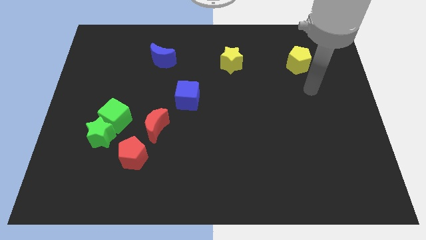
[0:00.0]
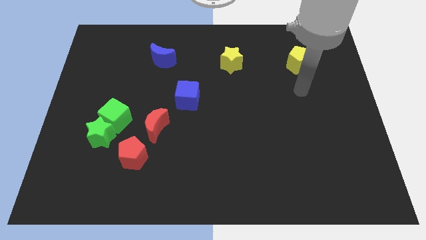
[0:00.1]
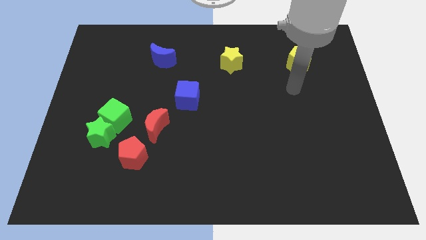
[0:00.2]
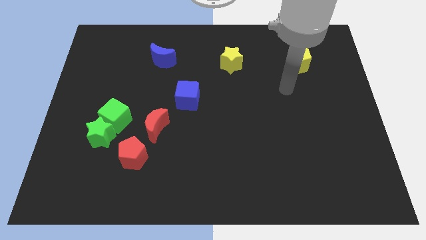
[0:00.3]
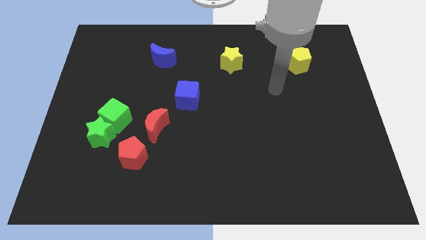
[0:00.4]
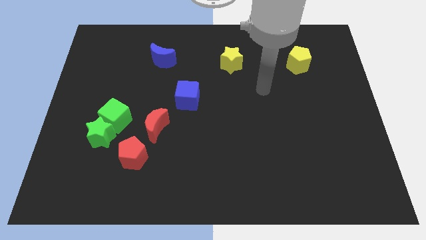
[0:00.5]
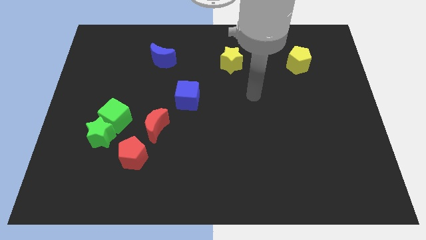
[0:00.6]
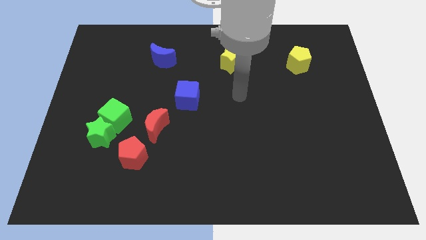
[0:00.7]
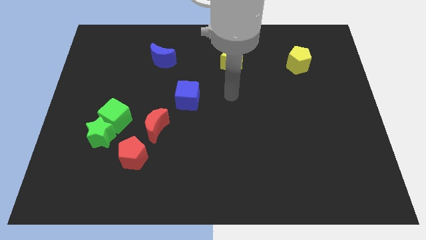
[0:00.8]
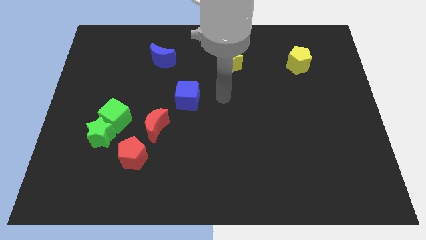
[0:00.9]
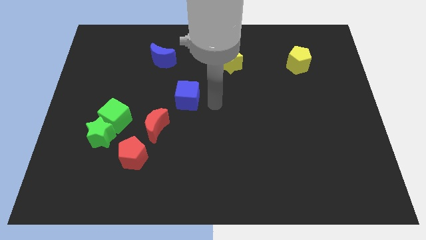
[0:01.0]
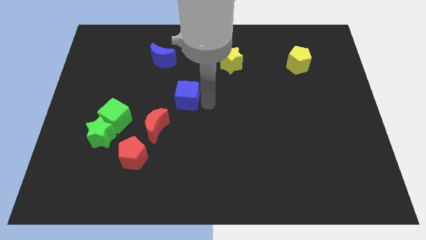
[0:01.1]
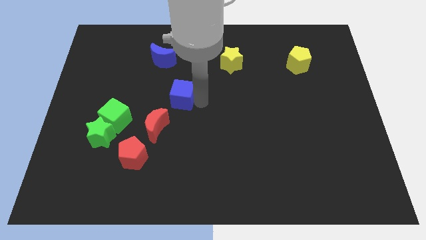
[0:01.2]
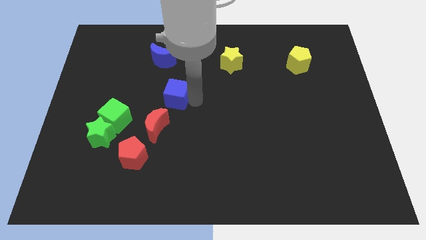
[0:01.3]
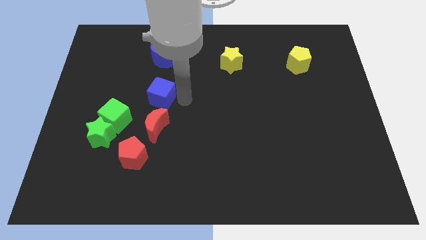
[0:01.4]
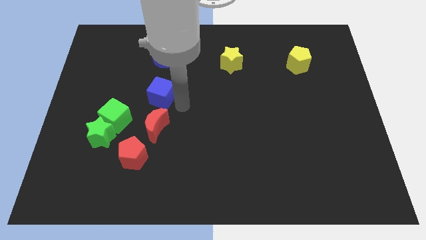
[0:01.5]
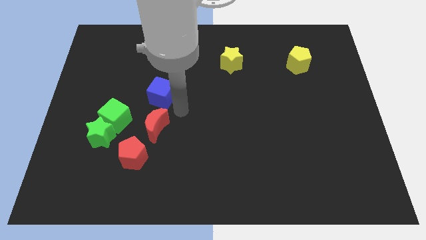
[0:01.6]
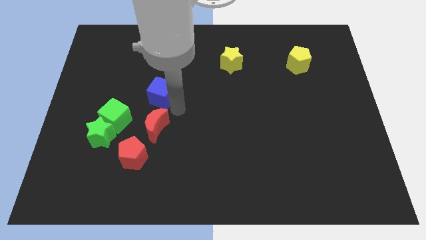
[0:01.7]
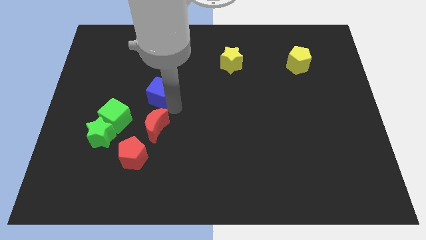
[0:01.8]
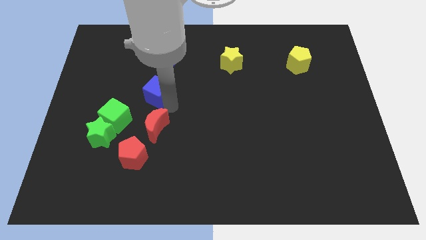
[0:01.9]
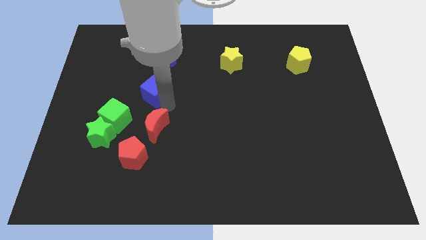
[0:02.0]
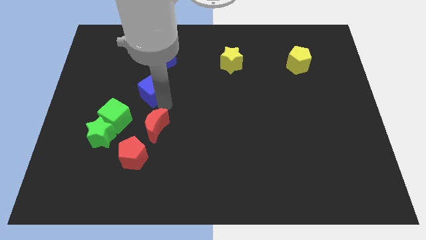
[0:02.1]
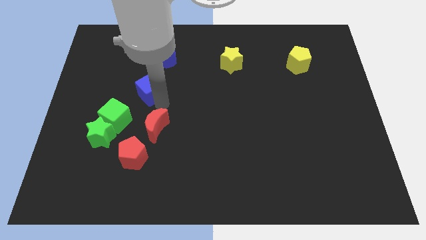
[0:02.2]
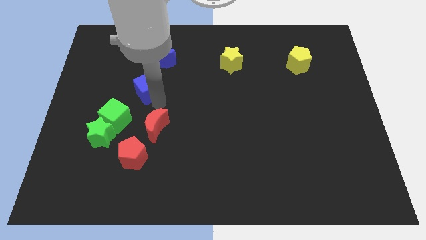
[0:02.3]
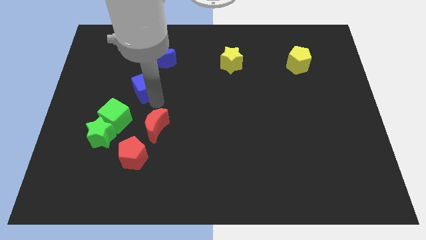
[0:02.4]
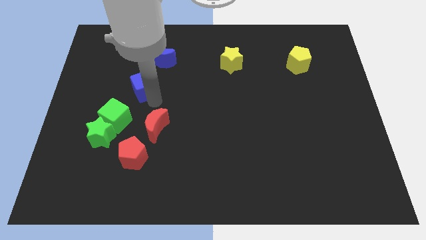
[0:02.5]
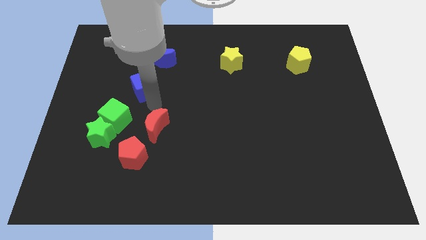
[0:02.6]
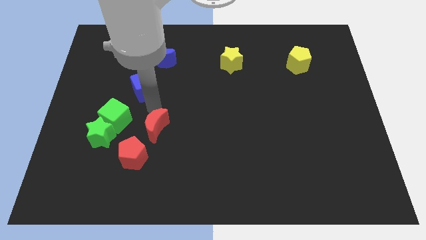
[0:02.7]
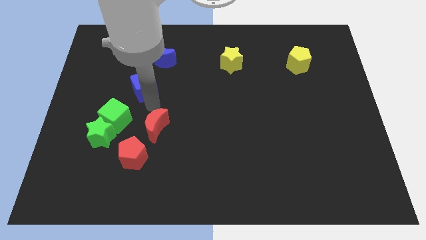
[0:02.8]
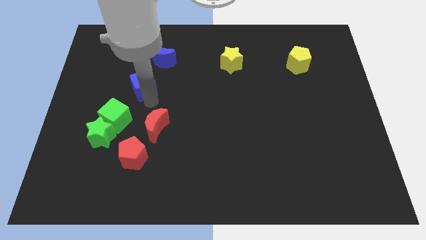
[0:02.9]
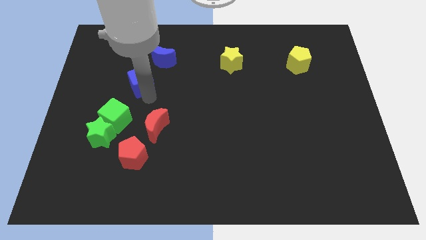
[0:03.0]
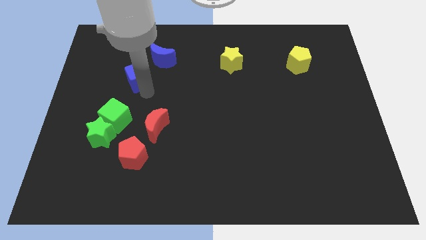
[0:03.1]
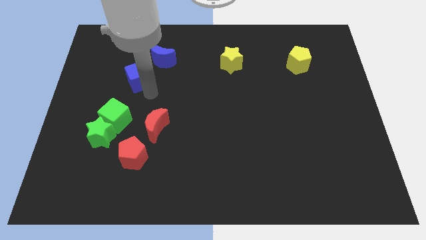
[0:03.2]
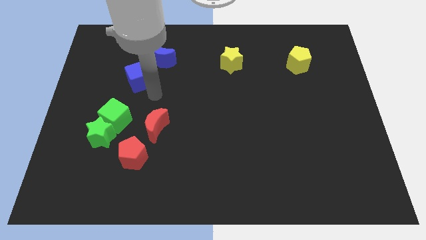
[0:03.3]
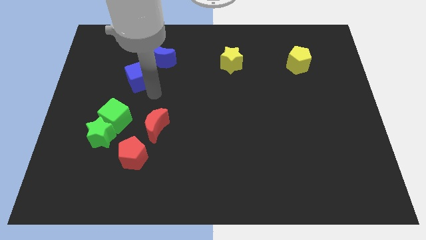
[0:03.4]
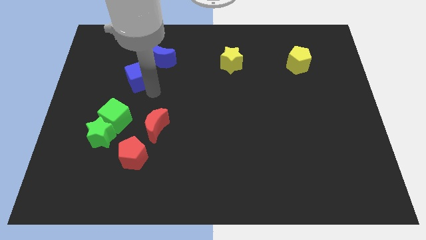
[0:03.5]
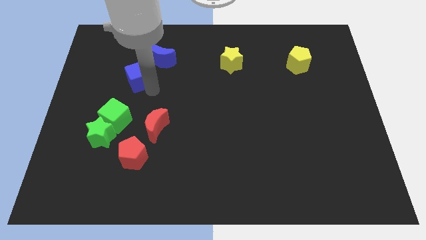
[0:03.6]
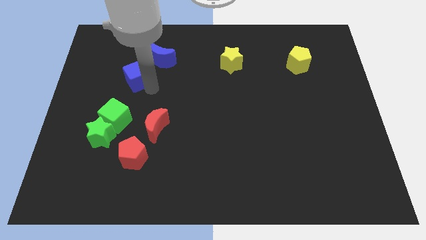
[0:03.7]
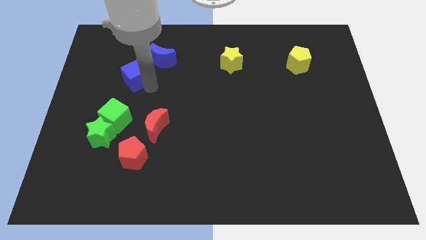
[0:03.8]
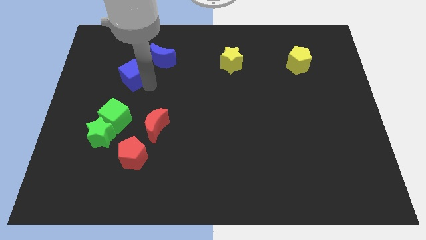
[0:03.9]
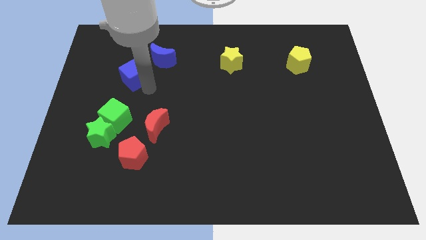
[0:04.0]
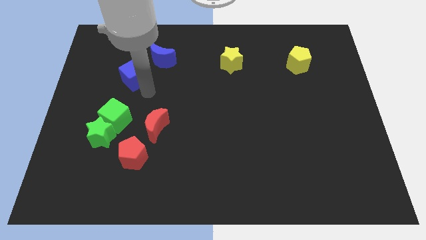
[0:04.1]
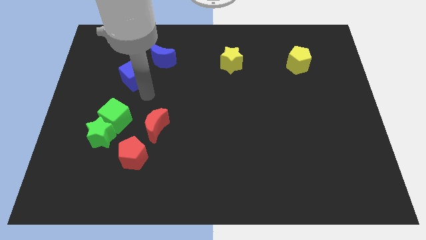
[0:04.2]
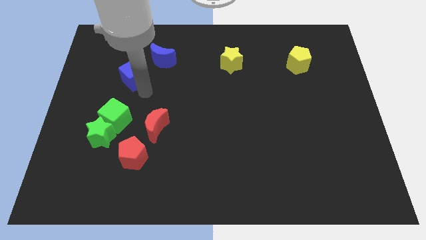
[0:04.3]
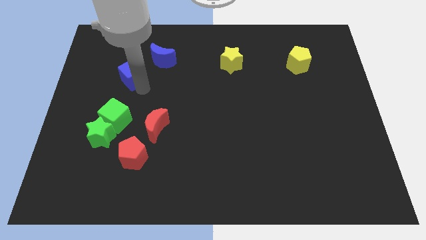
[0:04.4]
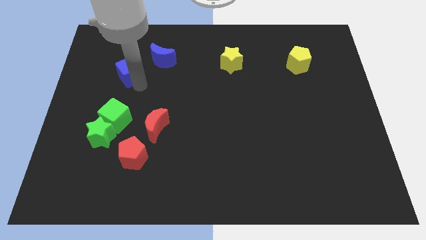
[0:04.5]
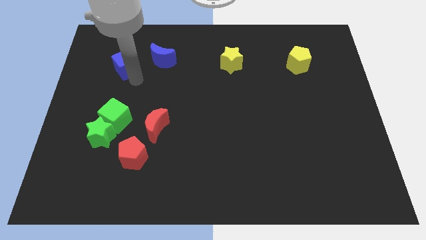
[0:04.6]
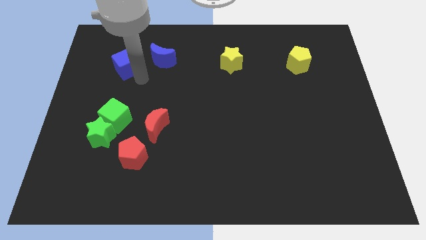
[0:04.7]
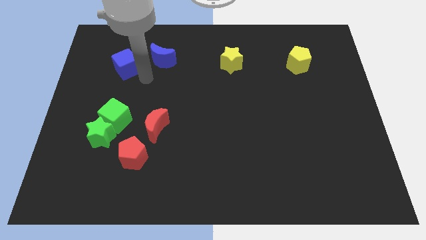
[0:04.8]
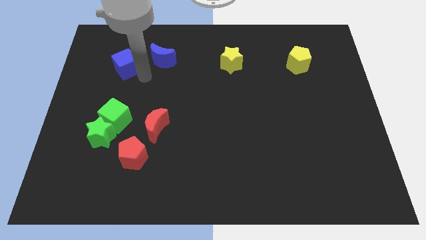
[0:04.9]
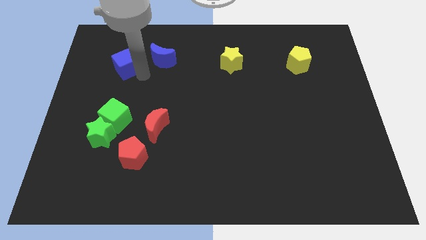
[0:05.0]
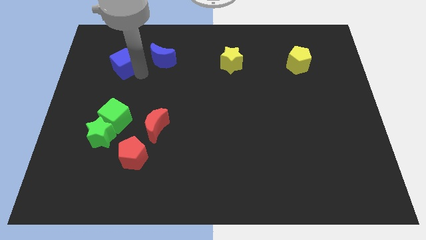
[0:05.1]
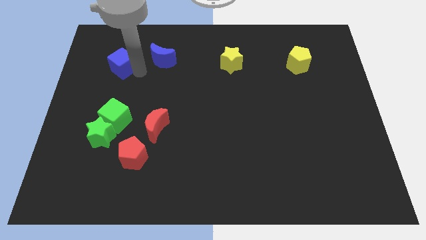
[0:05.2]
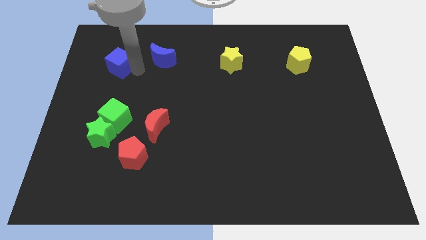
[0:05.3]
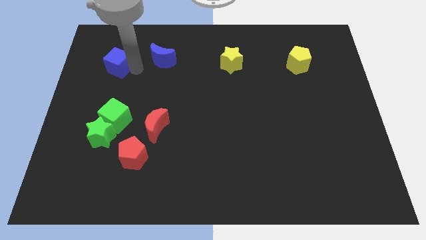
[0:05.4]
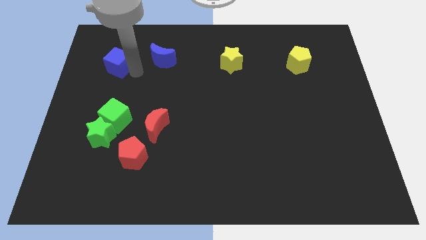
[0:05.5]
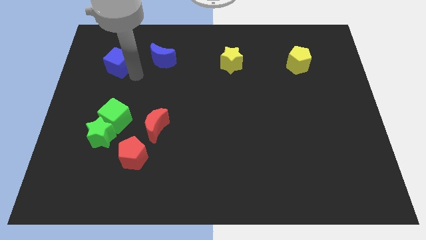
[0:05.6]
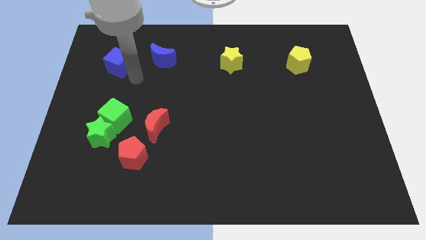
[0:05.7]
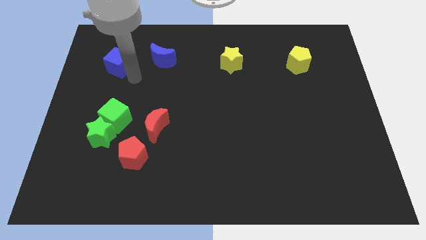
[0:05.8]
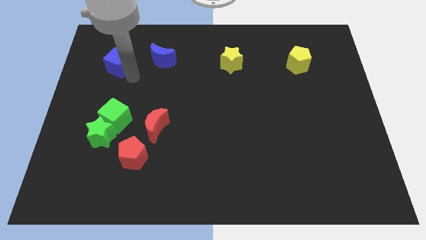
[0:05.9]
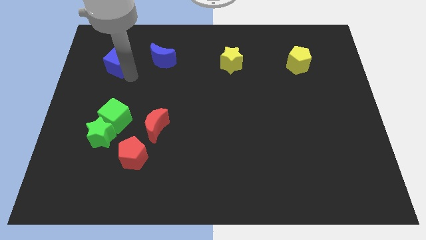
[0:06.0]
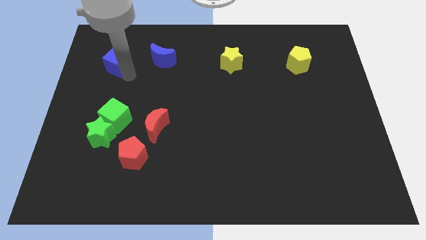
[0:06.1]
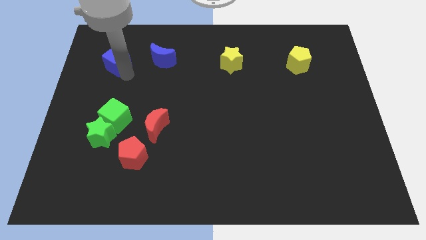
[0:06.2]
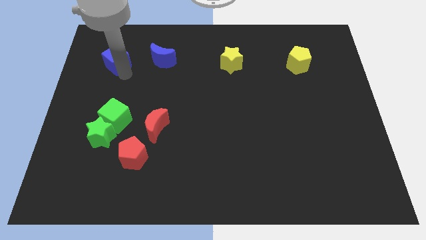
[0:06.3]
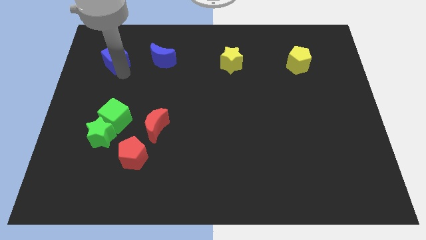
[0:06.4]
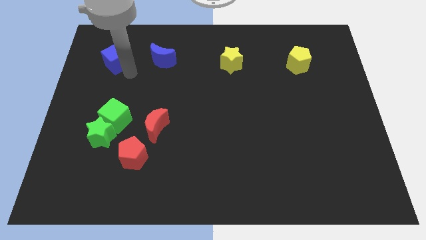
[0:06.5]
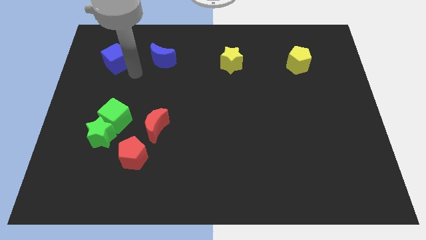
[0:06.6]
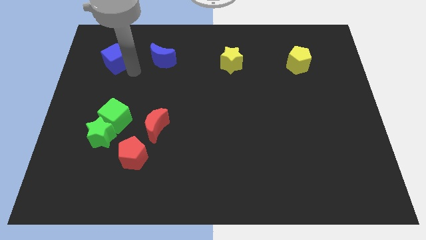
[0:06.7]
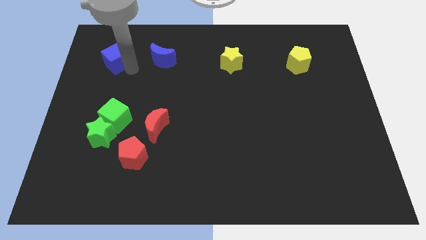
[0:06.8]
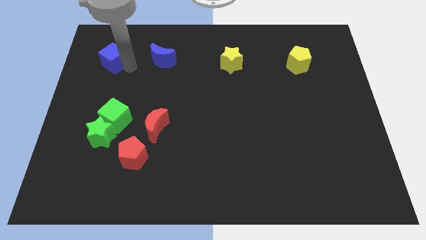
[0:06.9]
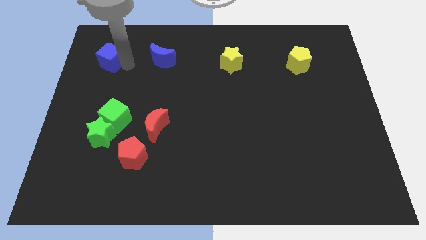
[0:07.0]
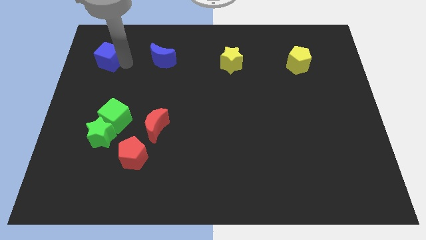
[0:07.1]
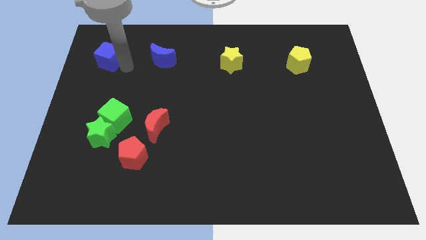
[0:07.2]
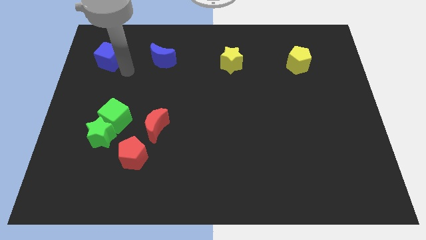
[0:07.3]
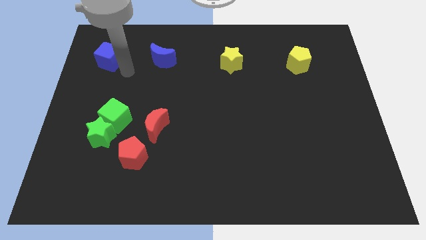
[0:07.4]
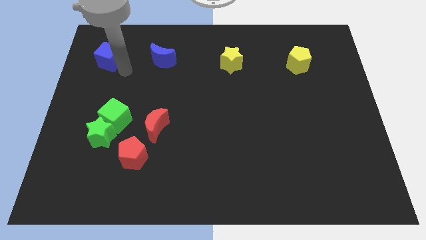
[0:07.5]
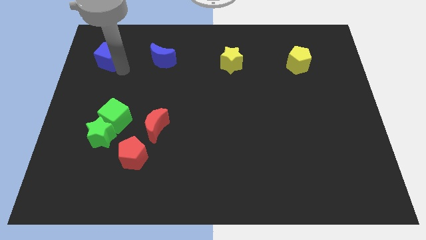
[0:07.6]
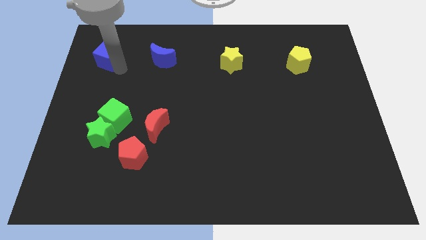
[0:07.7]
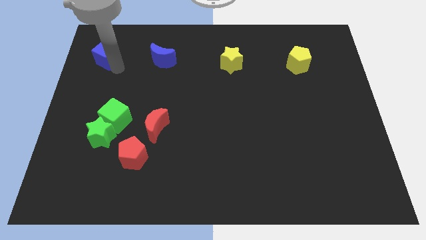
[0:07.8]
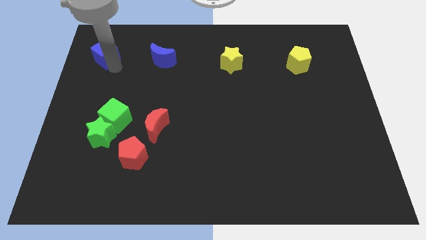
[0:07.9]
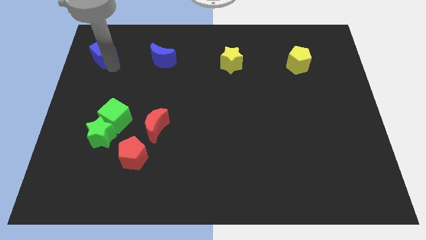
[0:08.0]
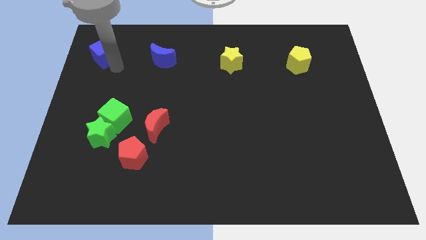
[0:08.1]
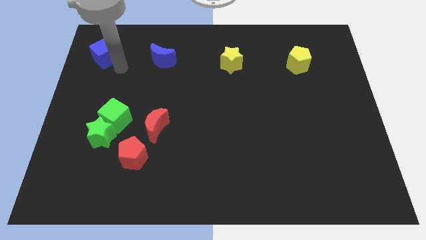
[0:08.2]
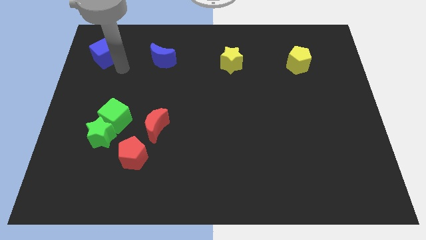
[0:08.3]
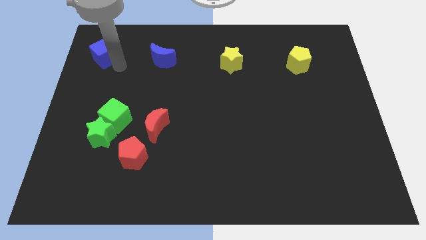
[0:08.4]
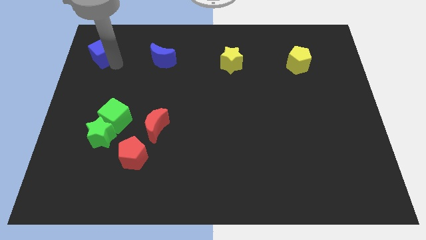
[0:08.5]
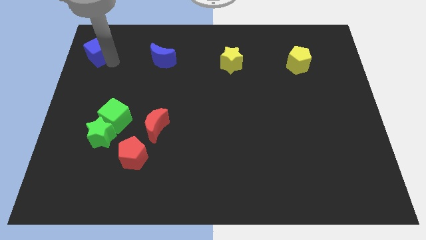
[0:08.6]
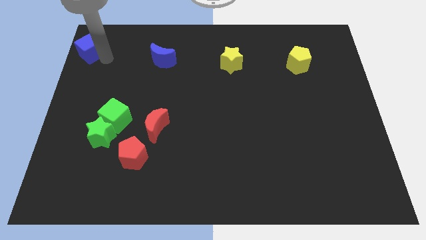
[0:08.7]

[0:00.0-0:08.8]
put the blue cube to the upper left corner
